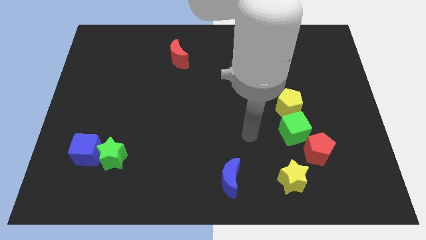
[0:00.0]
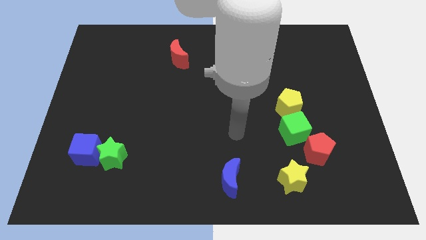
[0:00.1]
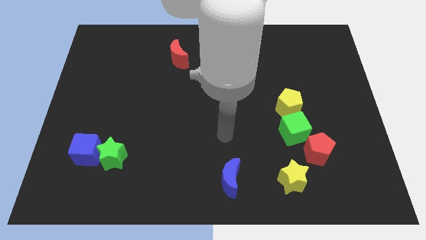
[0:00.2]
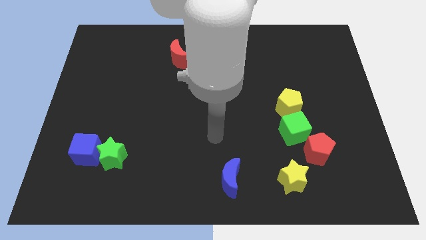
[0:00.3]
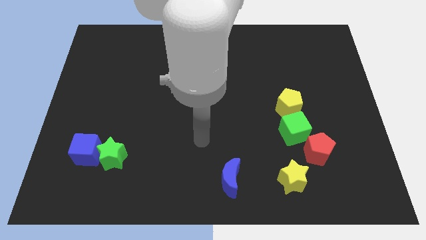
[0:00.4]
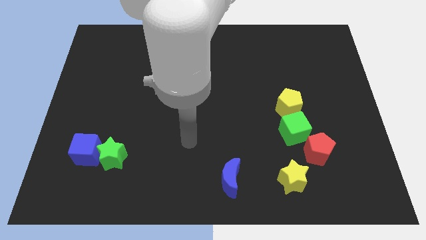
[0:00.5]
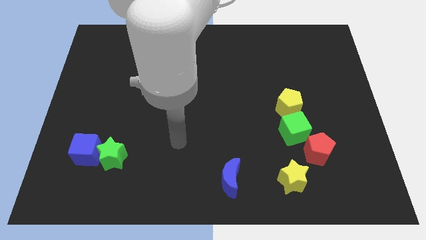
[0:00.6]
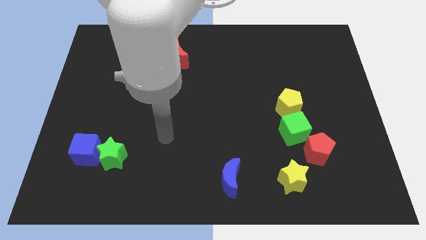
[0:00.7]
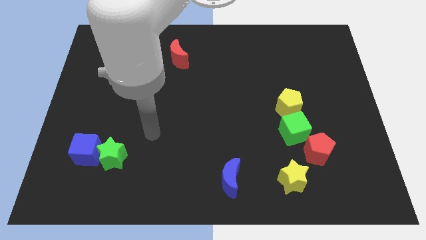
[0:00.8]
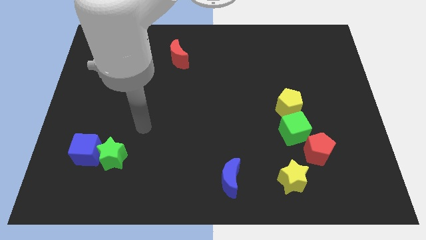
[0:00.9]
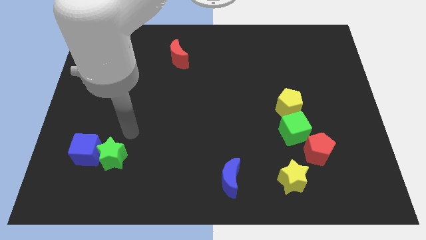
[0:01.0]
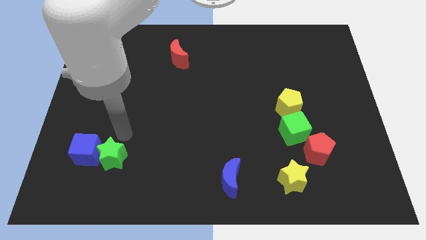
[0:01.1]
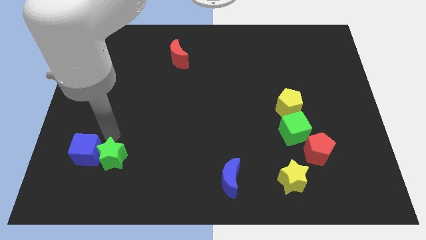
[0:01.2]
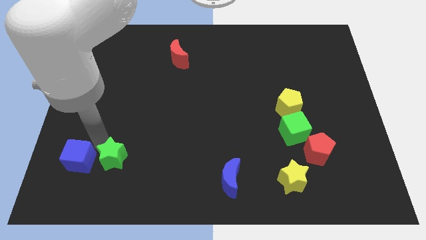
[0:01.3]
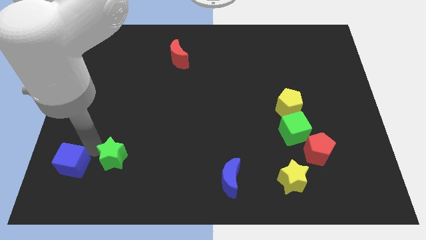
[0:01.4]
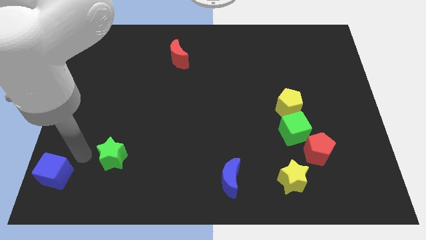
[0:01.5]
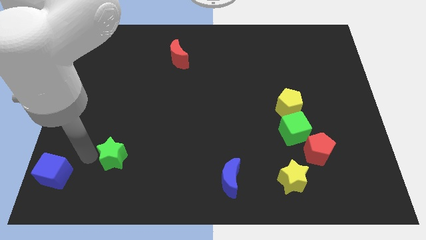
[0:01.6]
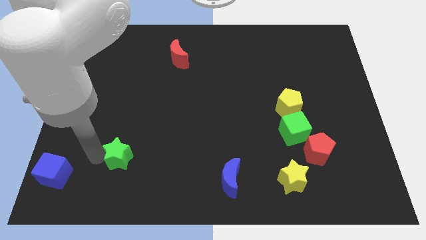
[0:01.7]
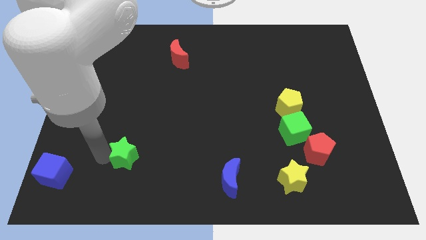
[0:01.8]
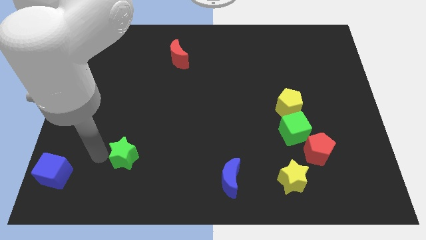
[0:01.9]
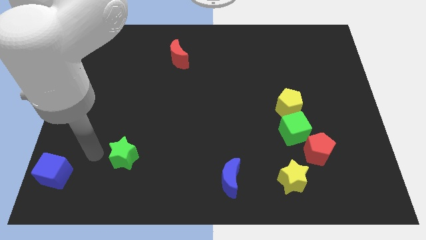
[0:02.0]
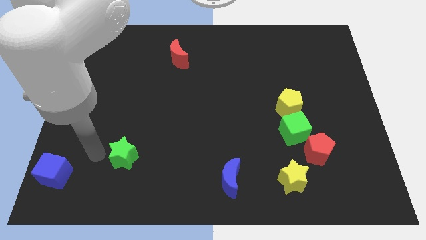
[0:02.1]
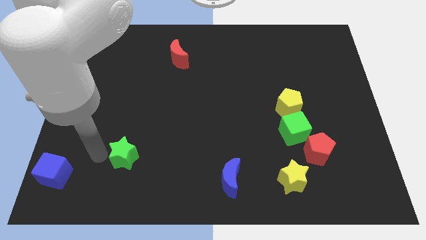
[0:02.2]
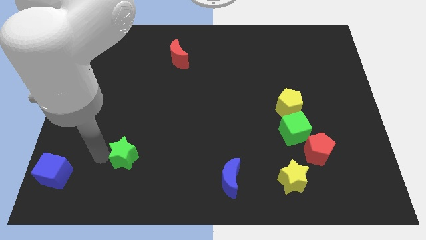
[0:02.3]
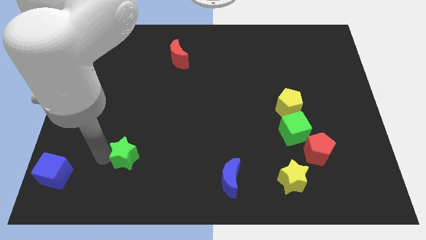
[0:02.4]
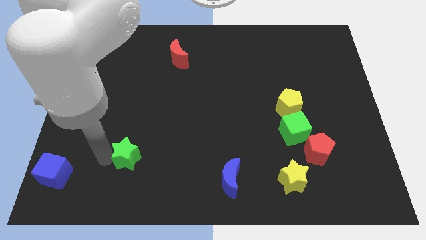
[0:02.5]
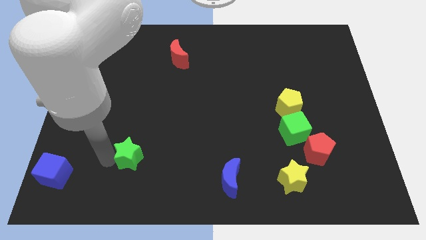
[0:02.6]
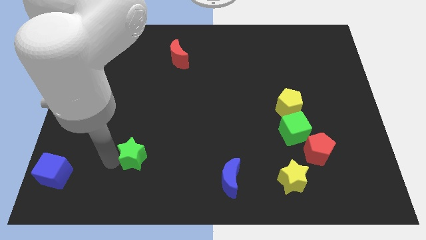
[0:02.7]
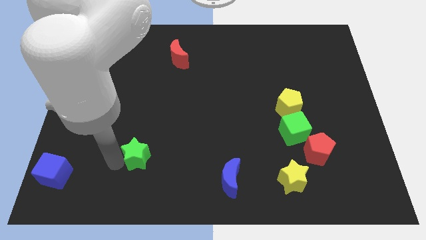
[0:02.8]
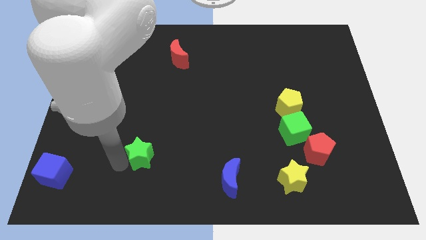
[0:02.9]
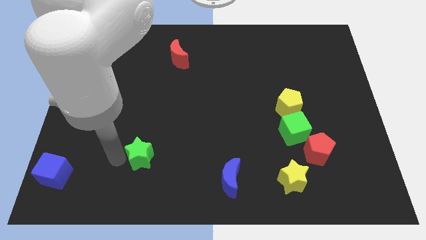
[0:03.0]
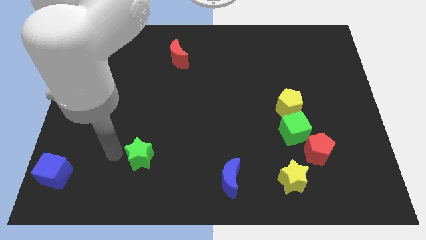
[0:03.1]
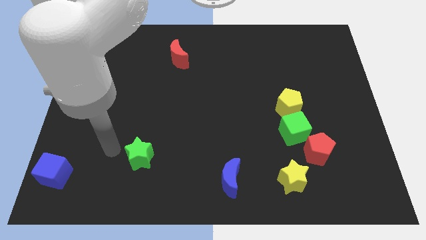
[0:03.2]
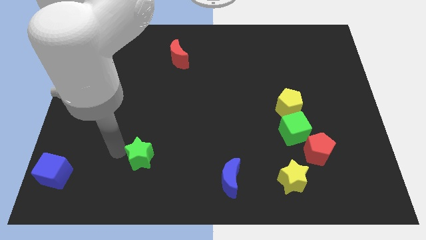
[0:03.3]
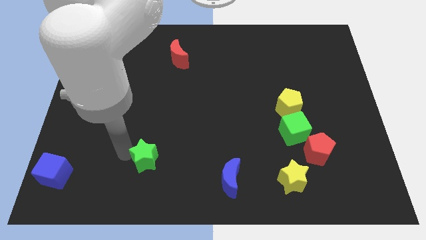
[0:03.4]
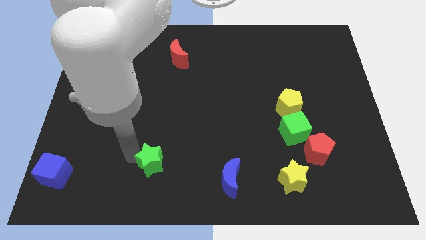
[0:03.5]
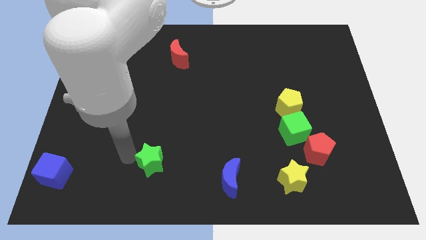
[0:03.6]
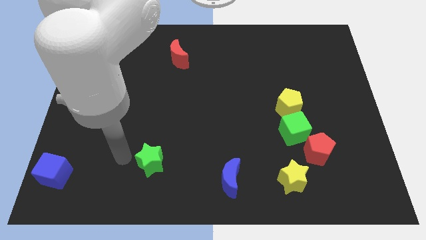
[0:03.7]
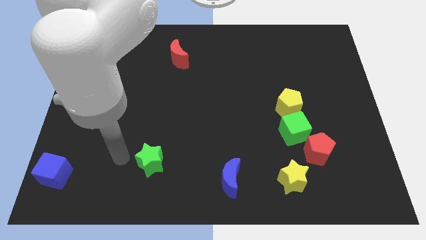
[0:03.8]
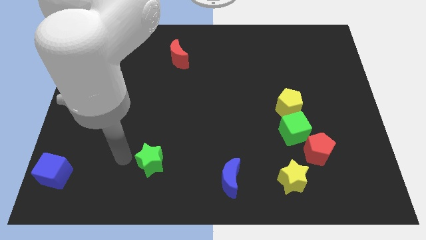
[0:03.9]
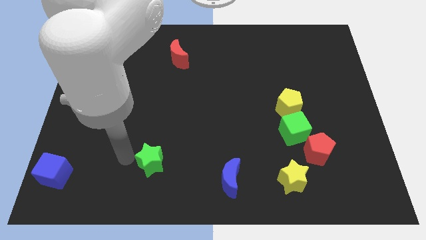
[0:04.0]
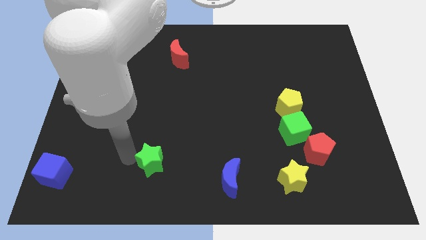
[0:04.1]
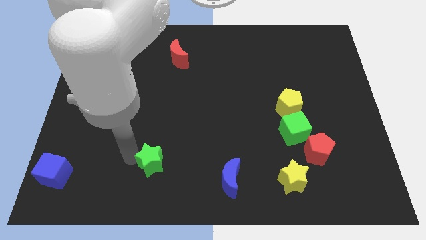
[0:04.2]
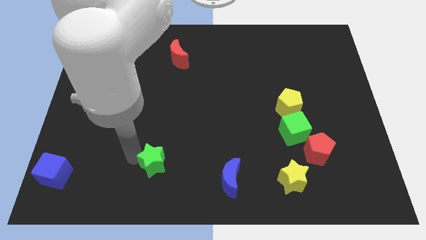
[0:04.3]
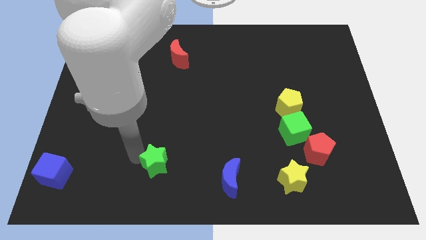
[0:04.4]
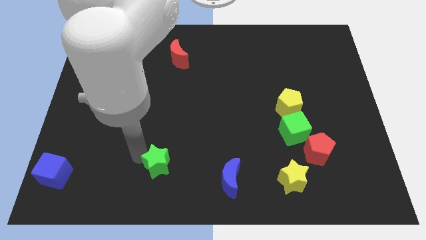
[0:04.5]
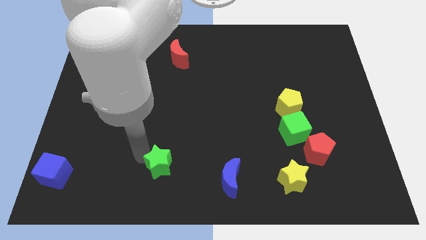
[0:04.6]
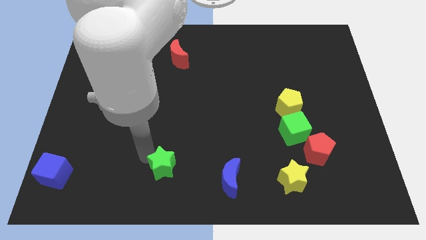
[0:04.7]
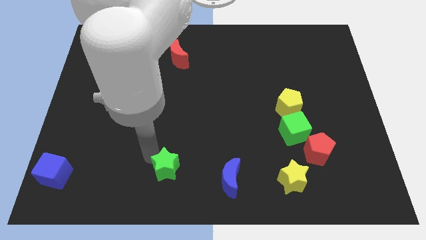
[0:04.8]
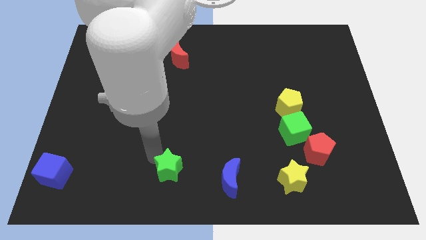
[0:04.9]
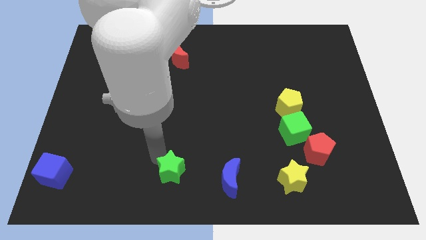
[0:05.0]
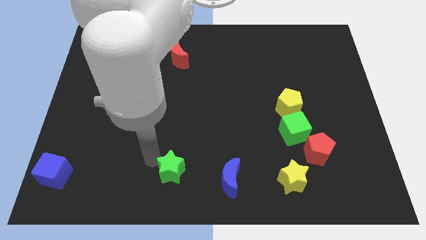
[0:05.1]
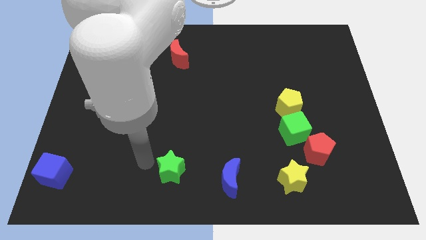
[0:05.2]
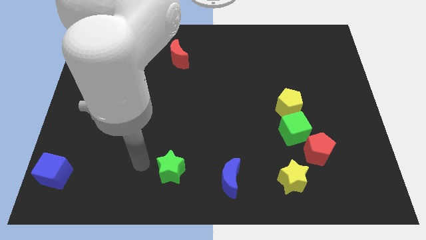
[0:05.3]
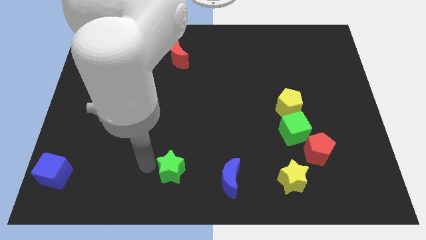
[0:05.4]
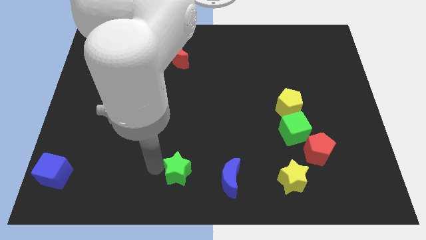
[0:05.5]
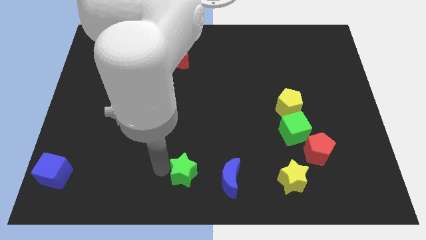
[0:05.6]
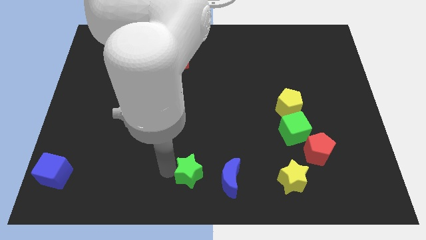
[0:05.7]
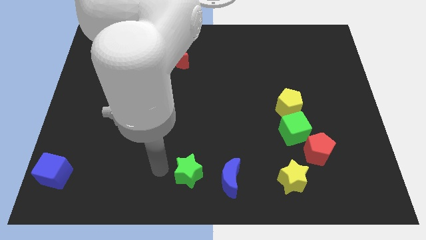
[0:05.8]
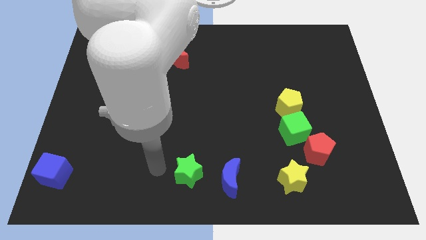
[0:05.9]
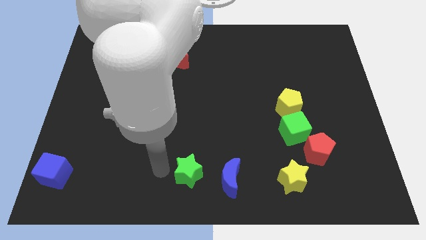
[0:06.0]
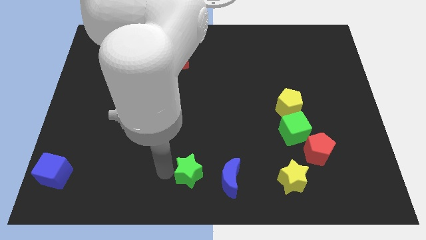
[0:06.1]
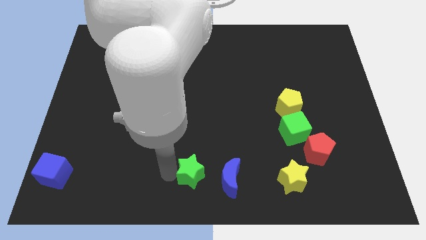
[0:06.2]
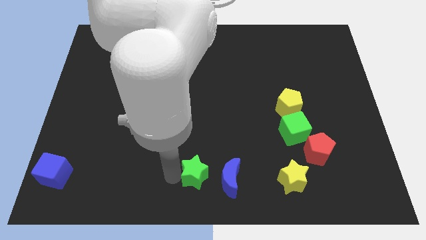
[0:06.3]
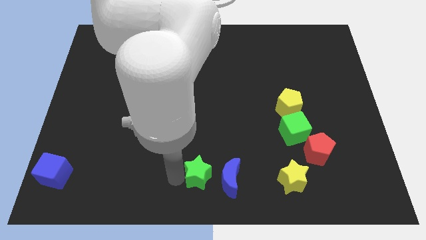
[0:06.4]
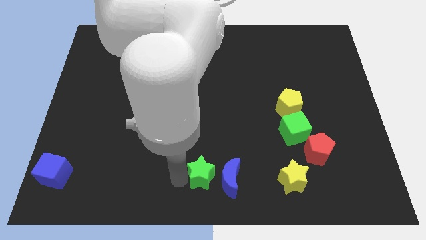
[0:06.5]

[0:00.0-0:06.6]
slide the green star to the blue moon

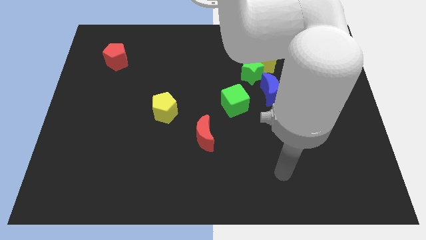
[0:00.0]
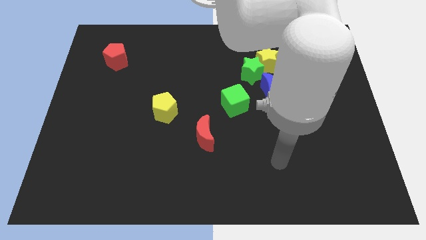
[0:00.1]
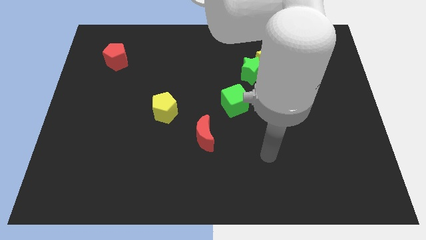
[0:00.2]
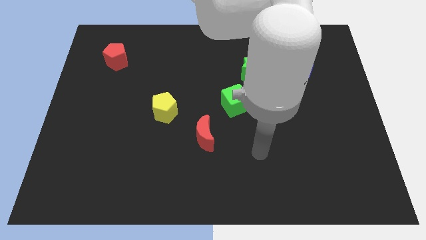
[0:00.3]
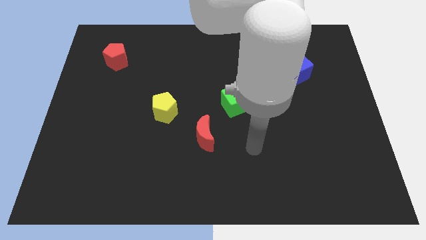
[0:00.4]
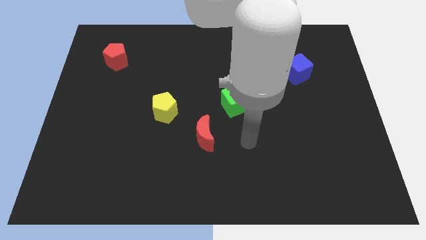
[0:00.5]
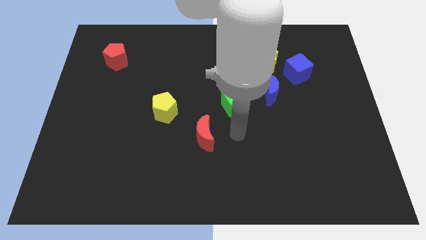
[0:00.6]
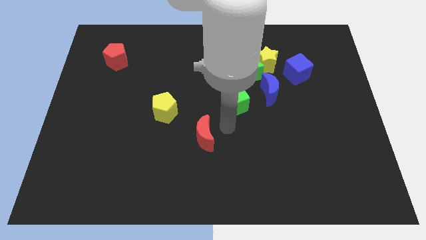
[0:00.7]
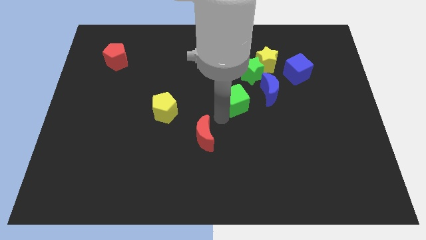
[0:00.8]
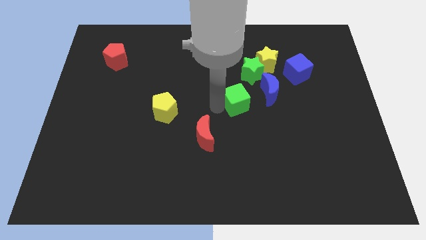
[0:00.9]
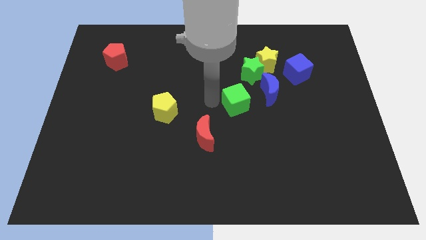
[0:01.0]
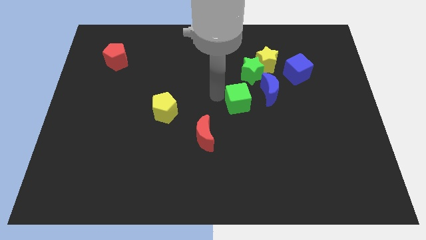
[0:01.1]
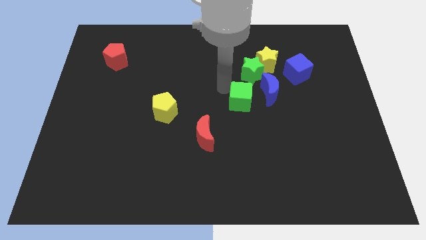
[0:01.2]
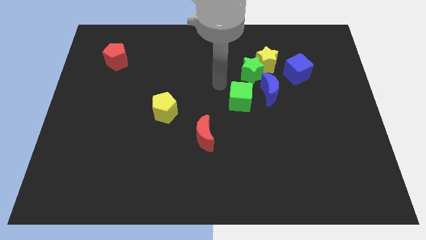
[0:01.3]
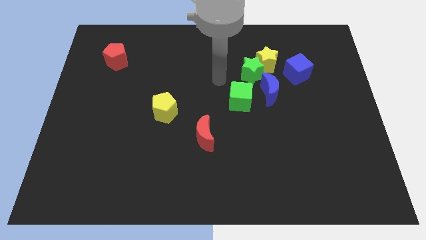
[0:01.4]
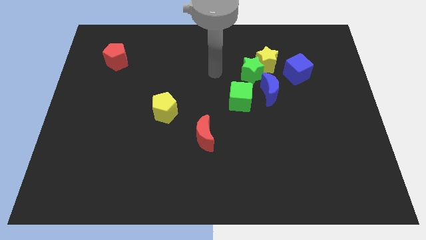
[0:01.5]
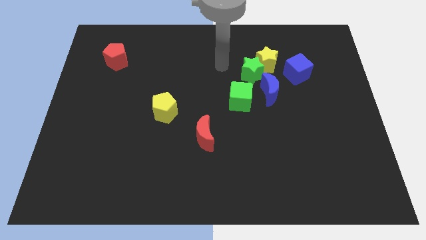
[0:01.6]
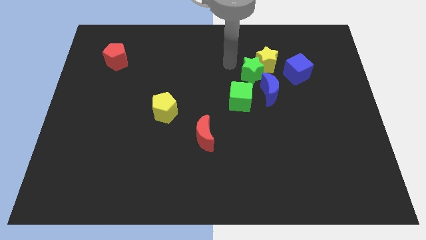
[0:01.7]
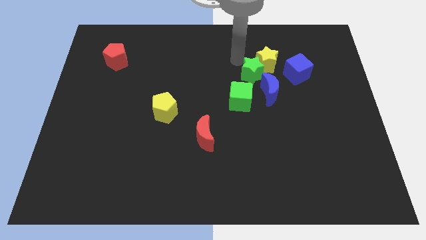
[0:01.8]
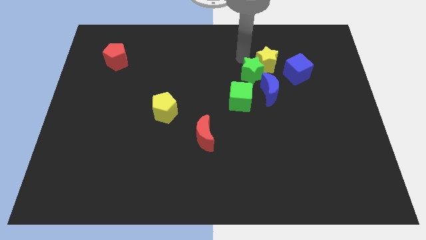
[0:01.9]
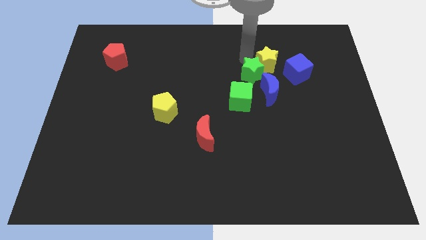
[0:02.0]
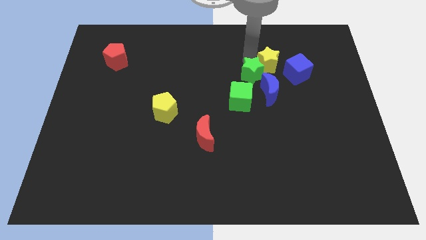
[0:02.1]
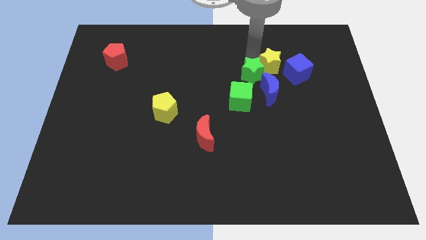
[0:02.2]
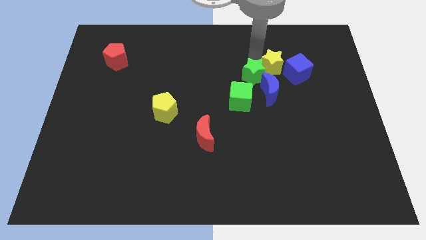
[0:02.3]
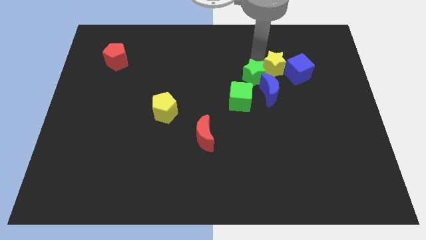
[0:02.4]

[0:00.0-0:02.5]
slide the yellow star towards the blue cube
